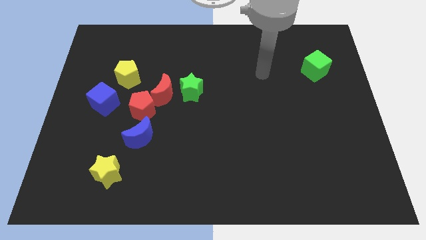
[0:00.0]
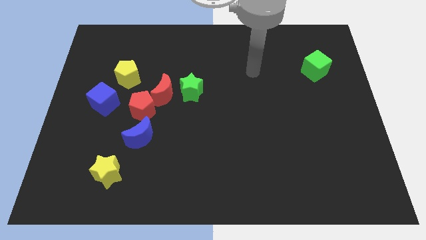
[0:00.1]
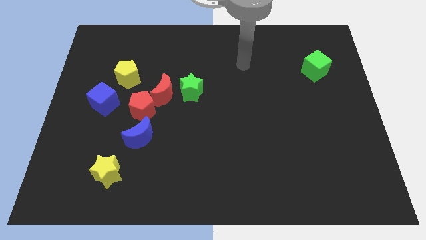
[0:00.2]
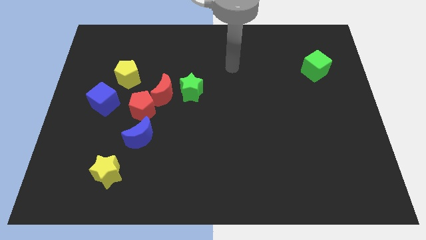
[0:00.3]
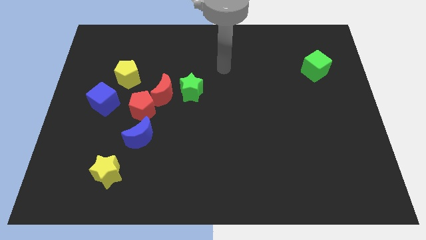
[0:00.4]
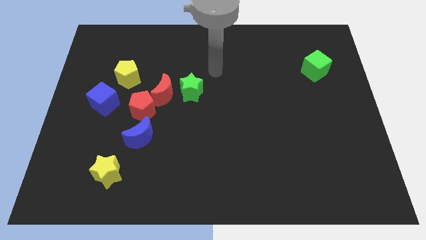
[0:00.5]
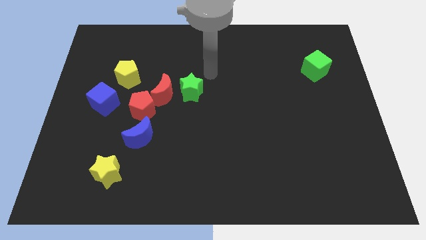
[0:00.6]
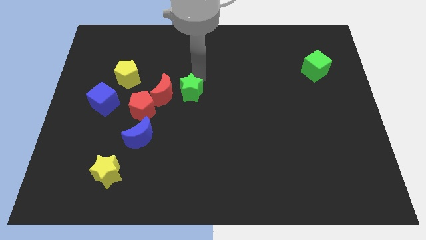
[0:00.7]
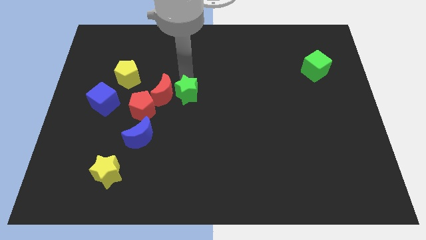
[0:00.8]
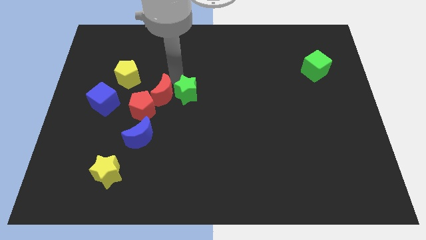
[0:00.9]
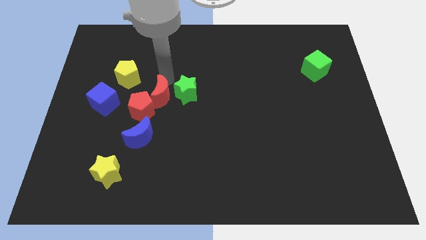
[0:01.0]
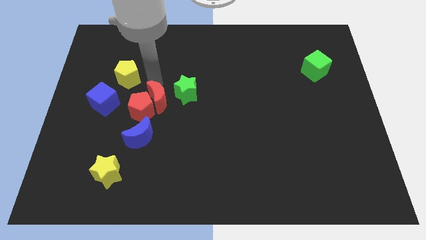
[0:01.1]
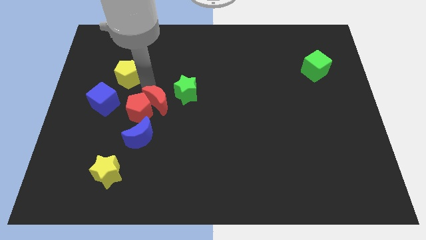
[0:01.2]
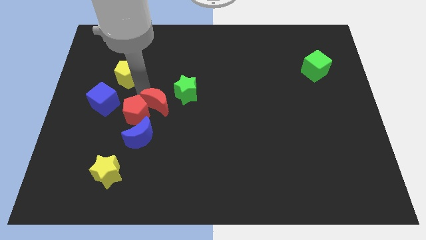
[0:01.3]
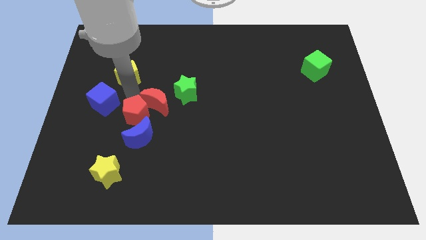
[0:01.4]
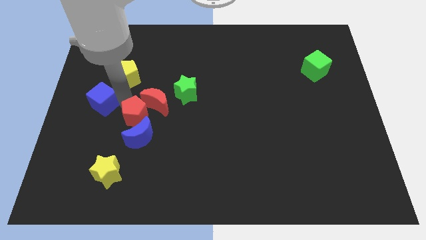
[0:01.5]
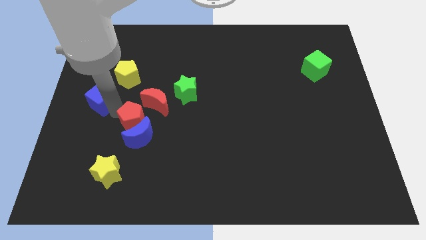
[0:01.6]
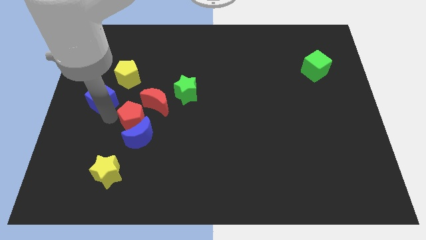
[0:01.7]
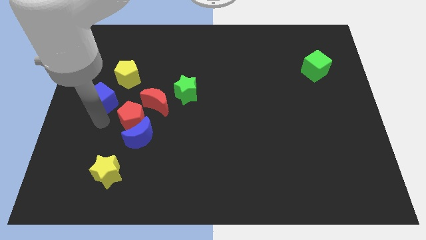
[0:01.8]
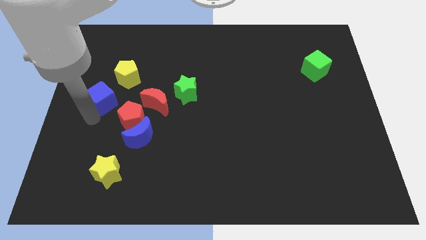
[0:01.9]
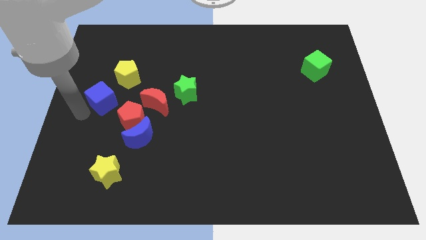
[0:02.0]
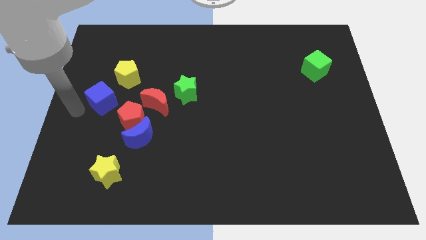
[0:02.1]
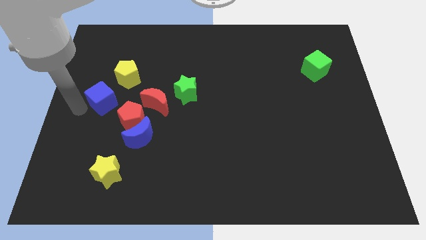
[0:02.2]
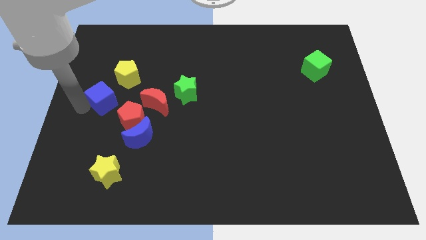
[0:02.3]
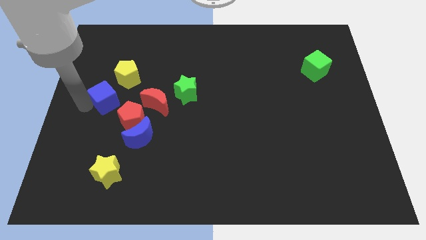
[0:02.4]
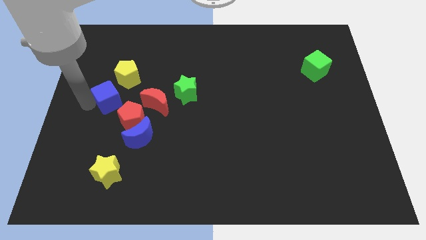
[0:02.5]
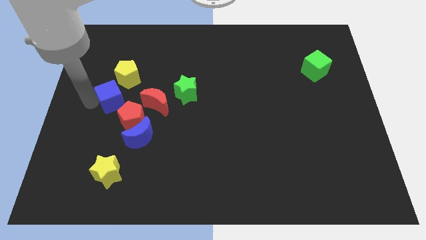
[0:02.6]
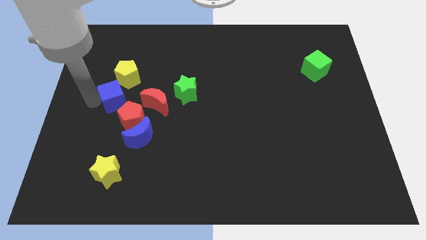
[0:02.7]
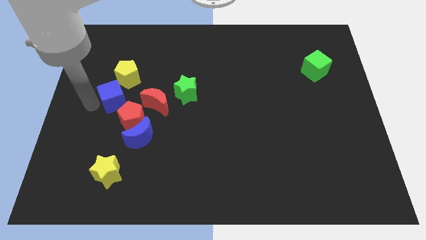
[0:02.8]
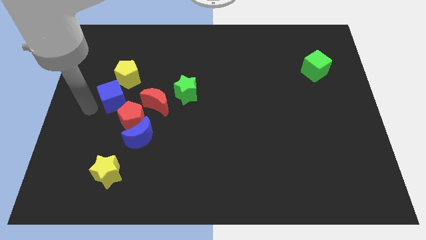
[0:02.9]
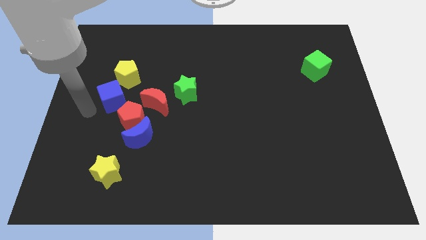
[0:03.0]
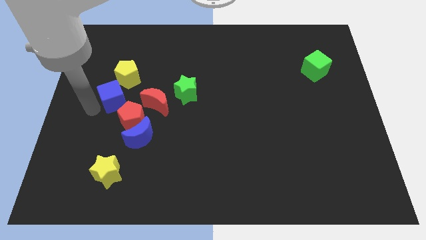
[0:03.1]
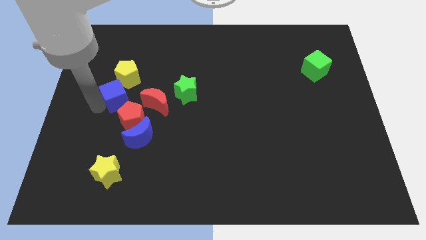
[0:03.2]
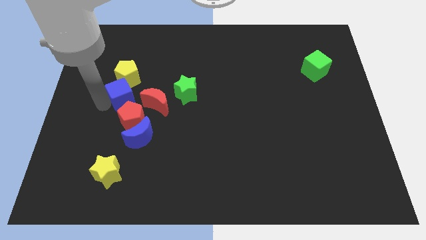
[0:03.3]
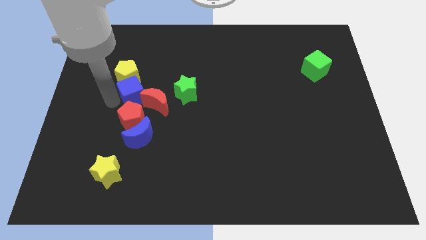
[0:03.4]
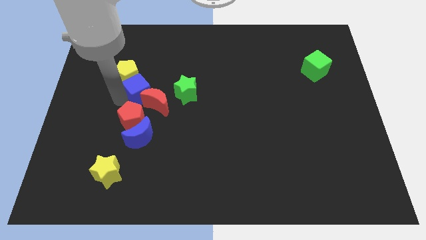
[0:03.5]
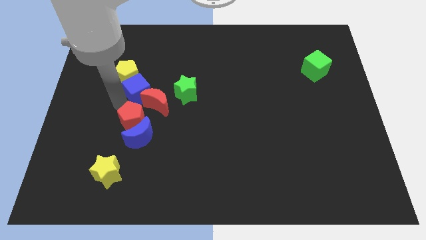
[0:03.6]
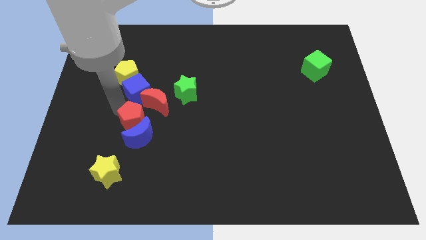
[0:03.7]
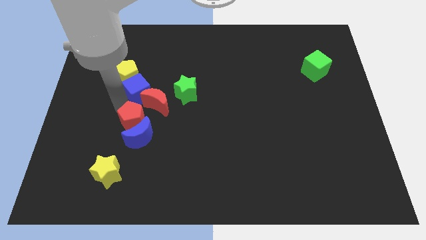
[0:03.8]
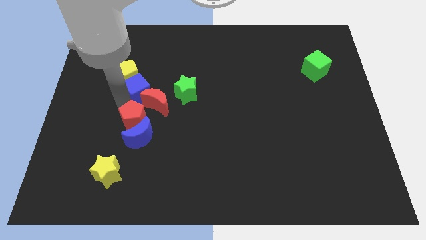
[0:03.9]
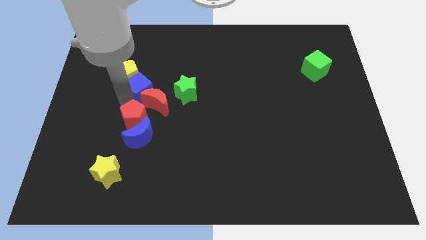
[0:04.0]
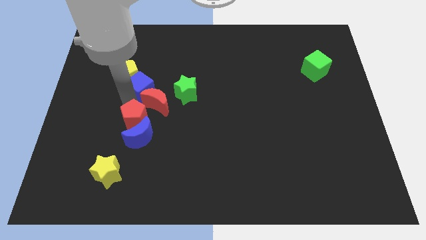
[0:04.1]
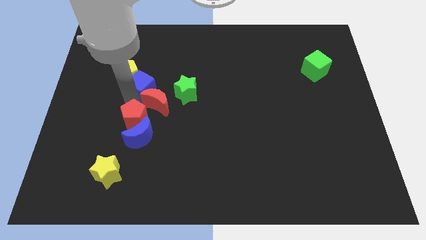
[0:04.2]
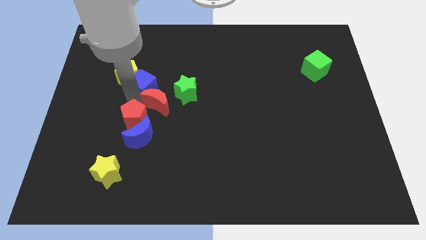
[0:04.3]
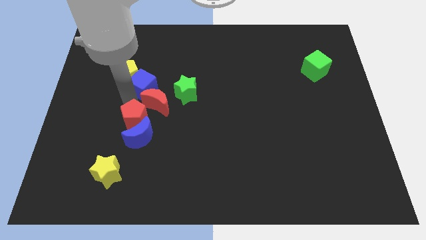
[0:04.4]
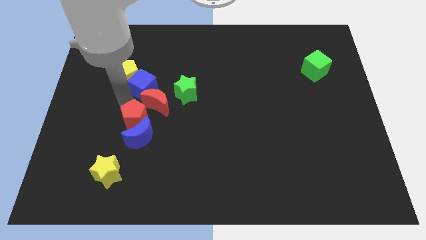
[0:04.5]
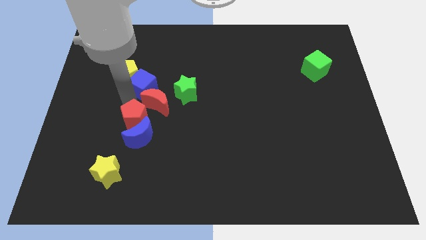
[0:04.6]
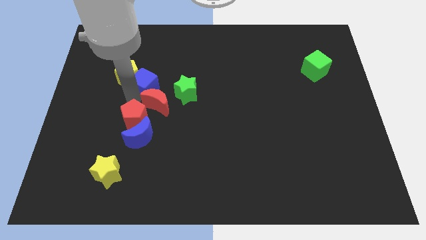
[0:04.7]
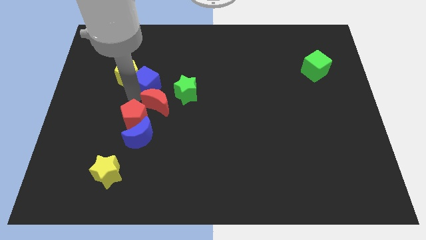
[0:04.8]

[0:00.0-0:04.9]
put the blue cube to the top left side of the green star

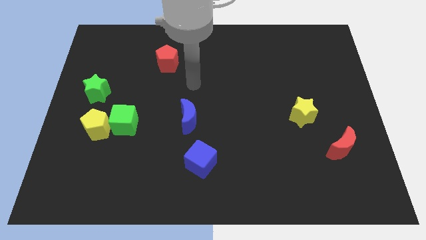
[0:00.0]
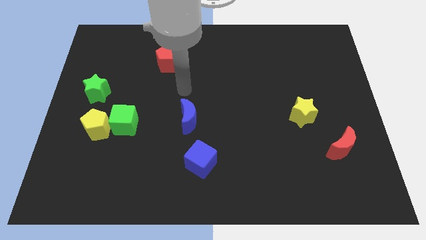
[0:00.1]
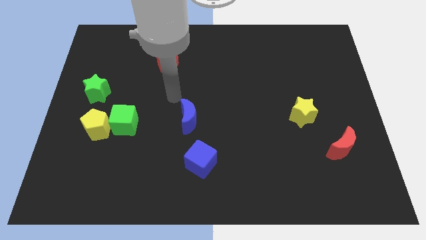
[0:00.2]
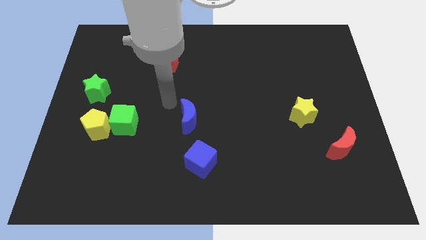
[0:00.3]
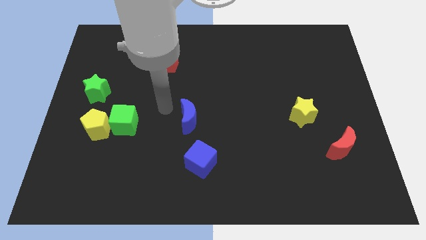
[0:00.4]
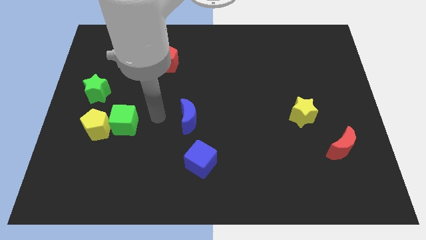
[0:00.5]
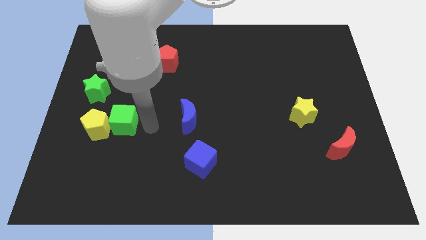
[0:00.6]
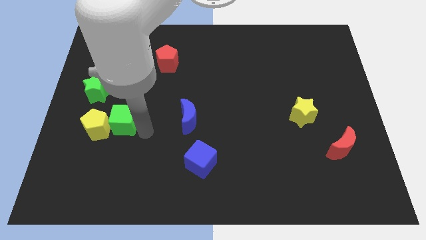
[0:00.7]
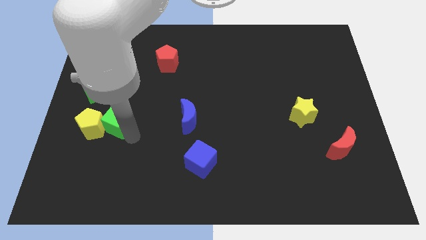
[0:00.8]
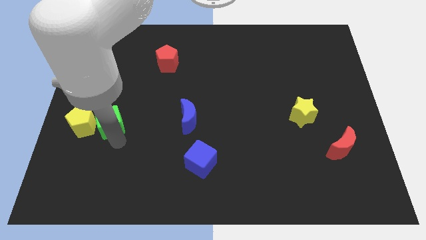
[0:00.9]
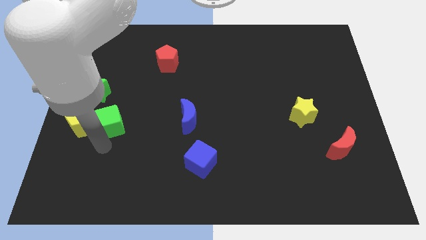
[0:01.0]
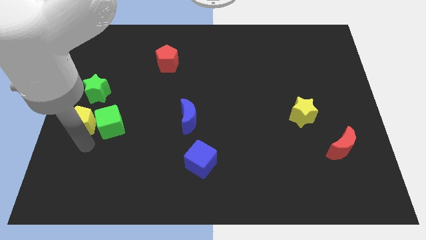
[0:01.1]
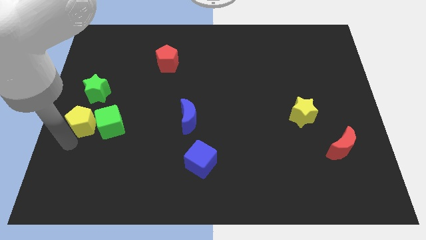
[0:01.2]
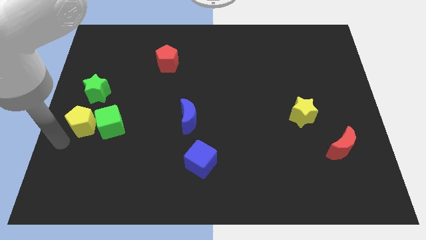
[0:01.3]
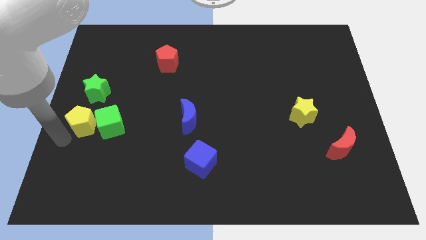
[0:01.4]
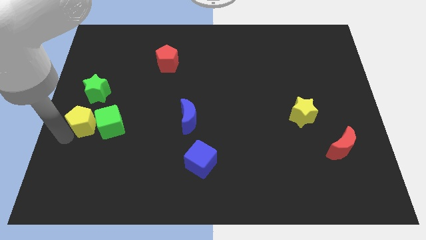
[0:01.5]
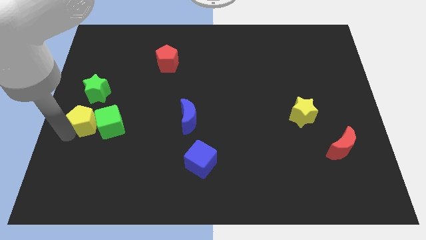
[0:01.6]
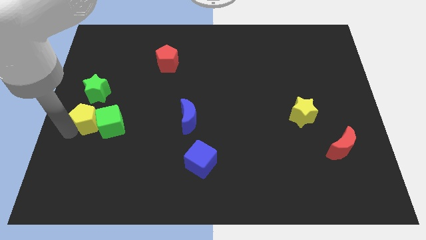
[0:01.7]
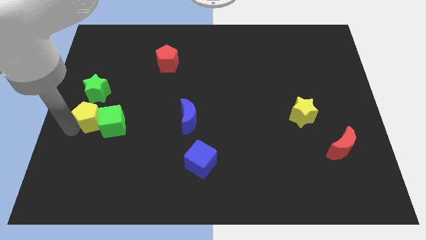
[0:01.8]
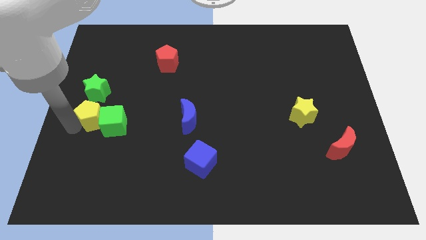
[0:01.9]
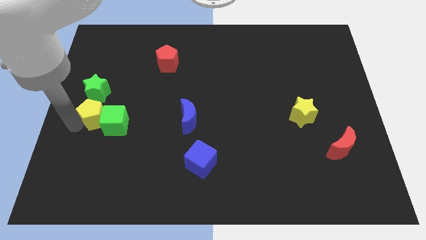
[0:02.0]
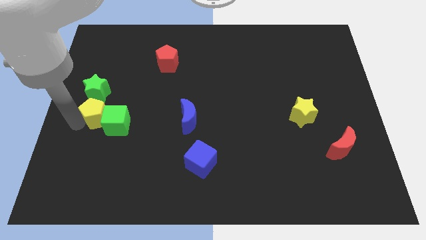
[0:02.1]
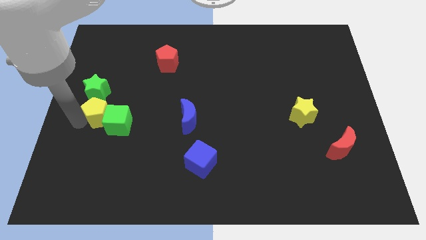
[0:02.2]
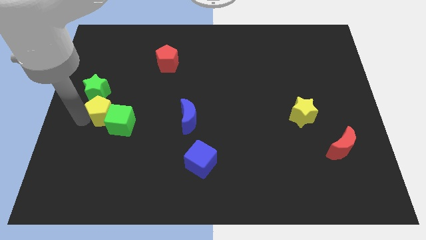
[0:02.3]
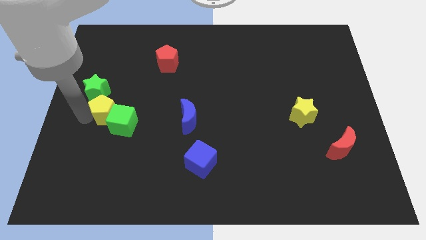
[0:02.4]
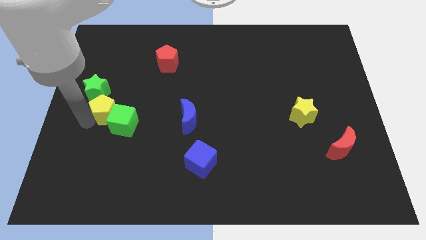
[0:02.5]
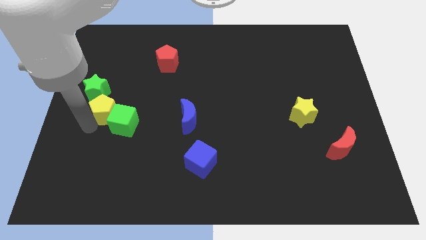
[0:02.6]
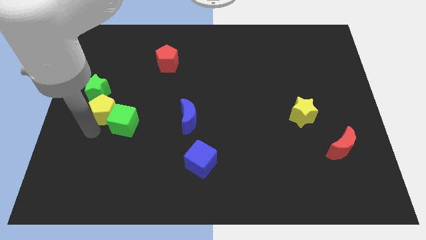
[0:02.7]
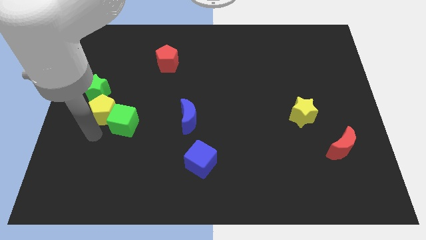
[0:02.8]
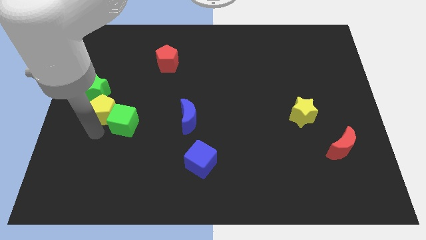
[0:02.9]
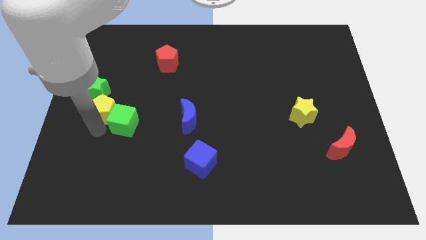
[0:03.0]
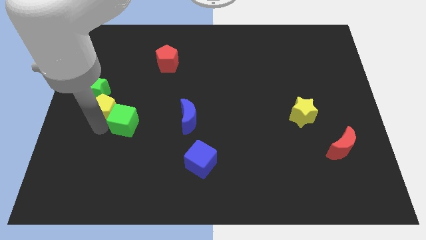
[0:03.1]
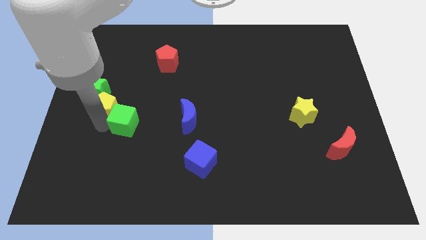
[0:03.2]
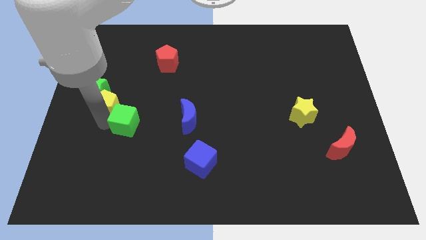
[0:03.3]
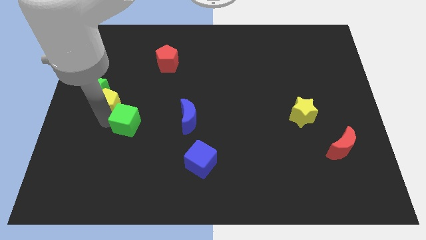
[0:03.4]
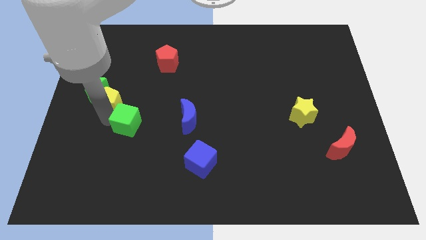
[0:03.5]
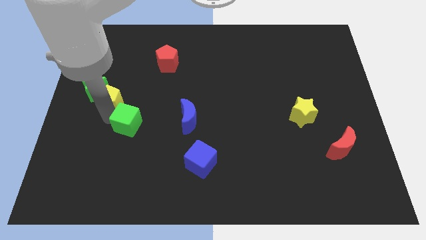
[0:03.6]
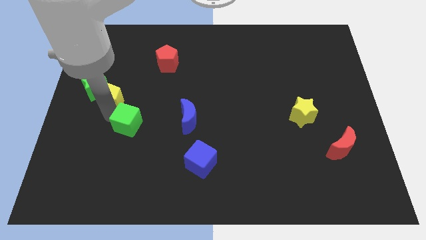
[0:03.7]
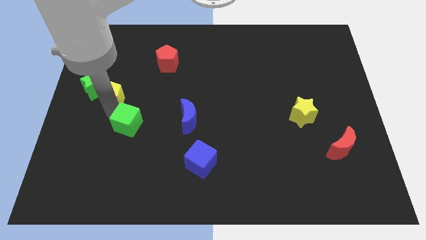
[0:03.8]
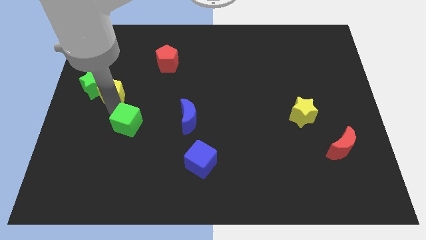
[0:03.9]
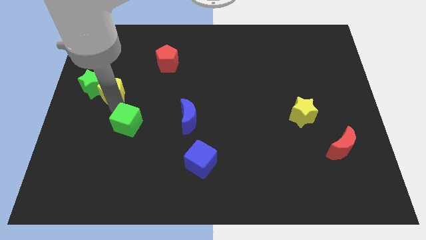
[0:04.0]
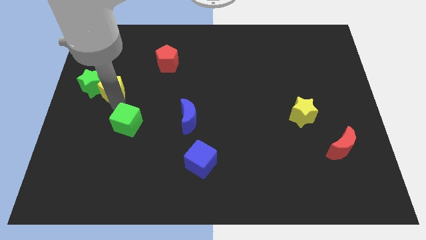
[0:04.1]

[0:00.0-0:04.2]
push the yellow pentagon to the top right of the green star
